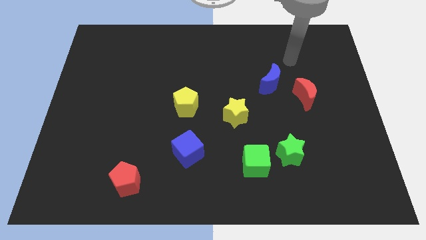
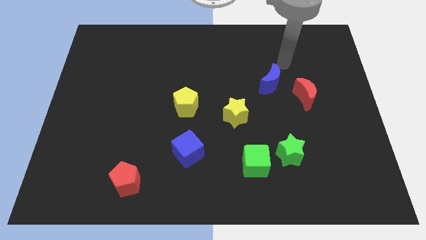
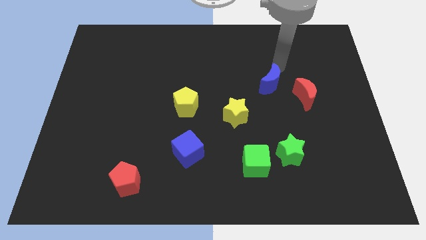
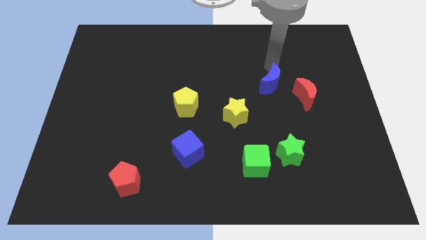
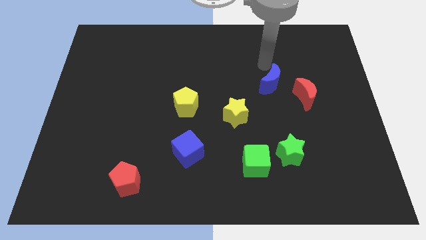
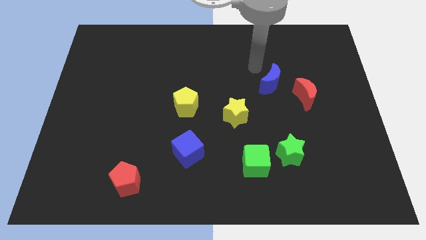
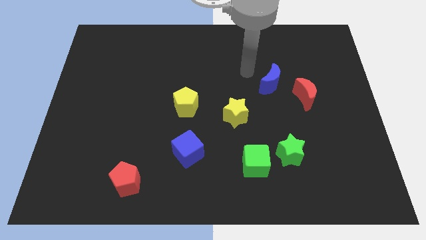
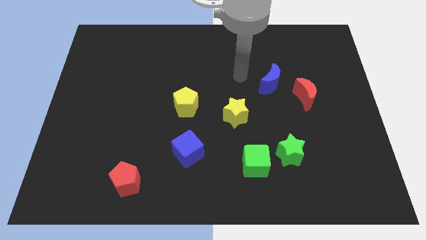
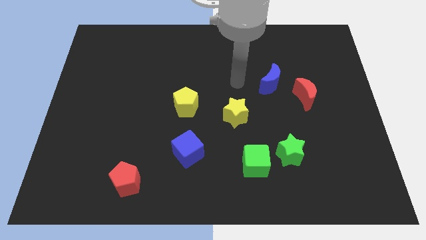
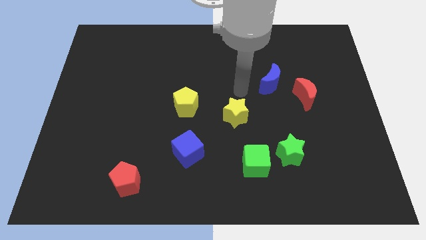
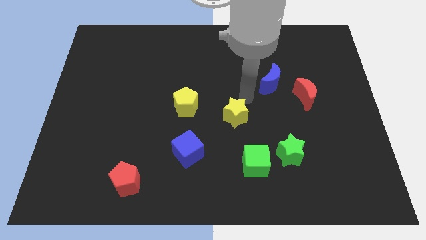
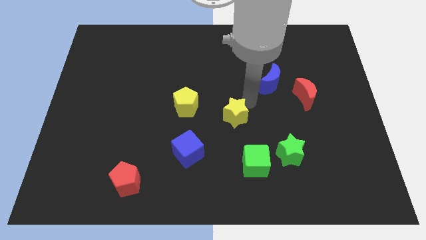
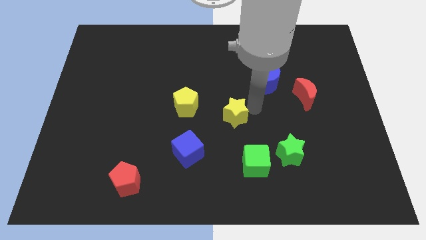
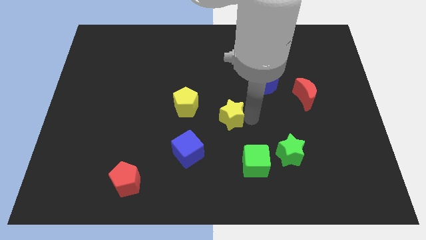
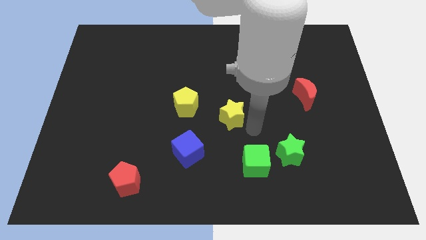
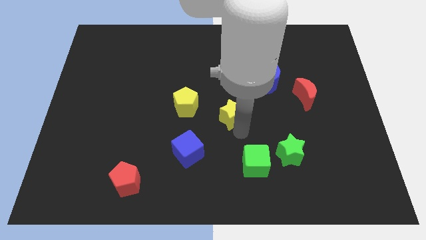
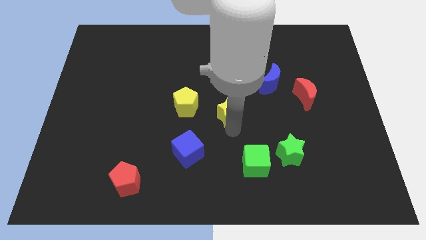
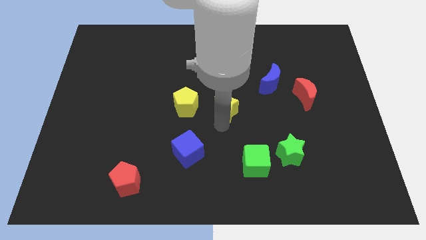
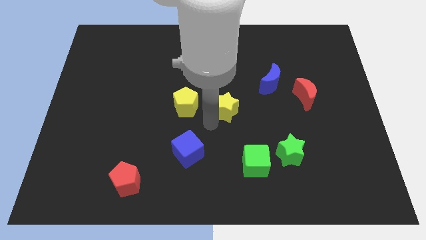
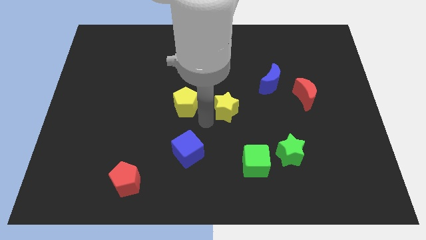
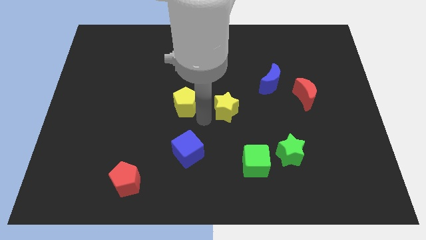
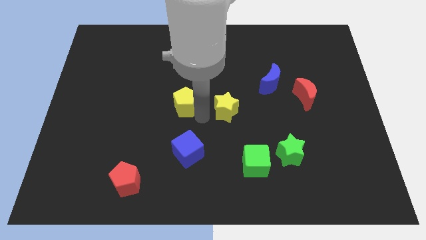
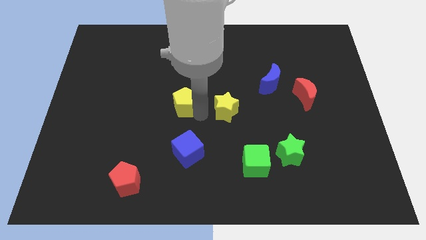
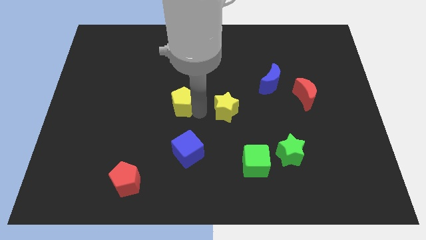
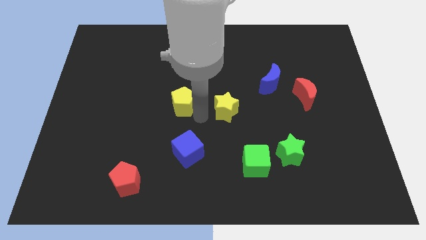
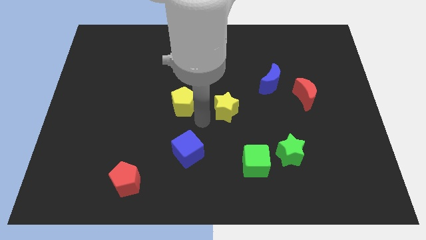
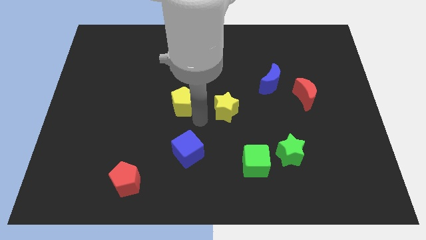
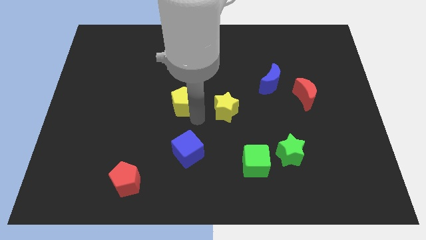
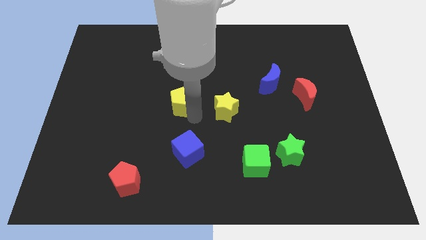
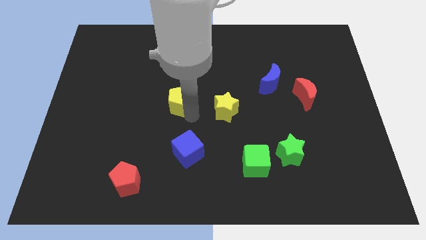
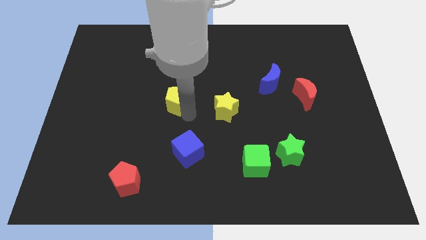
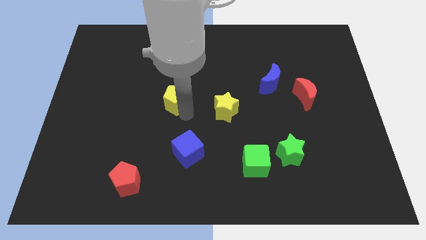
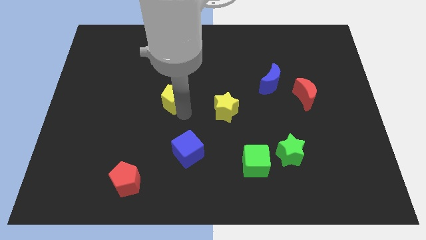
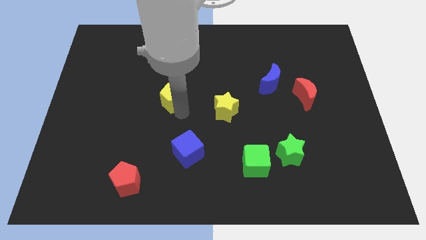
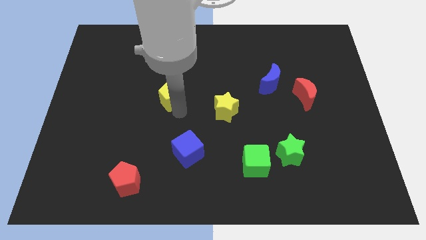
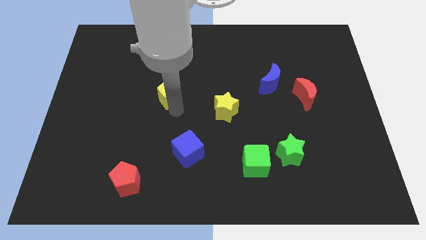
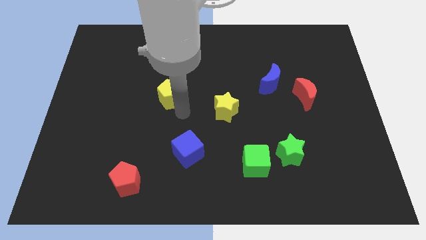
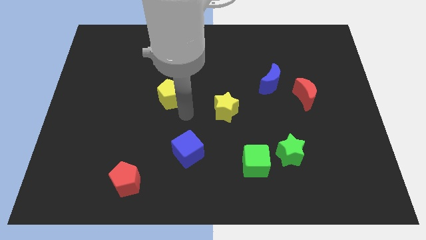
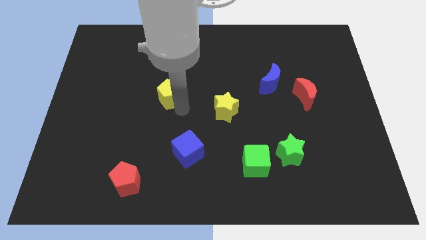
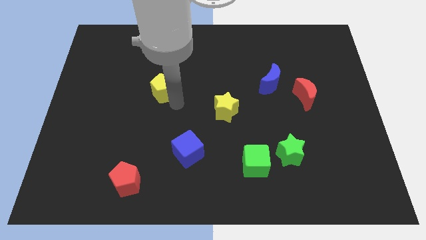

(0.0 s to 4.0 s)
slightly push the yellow pentagon upwards and then to the left

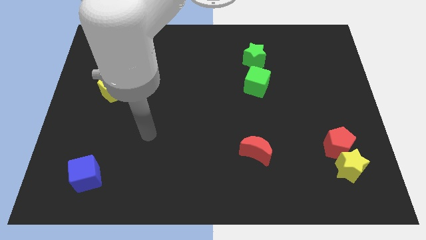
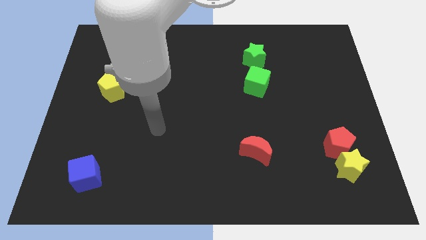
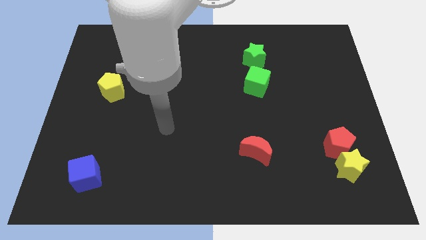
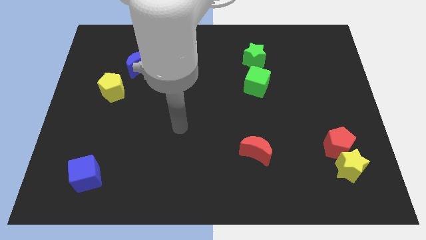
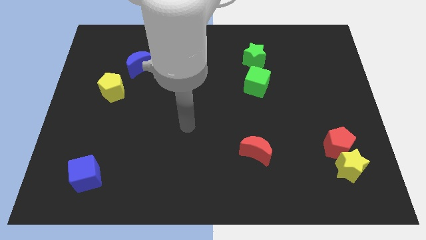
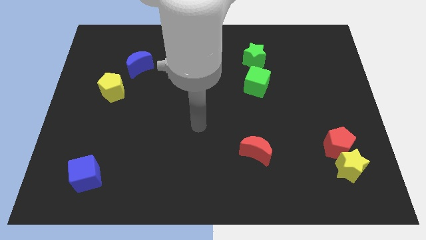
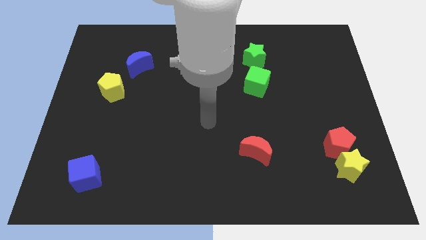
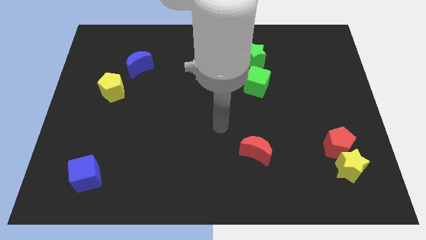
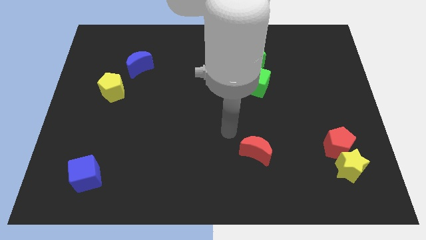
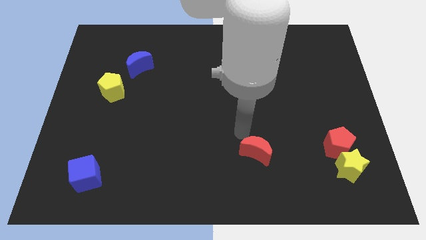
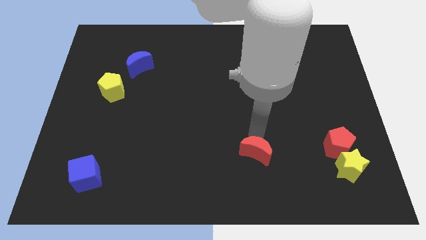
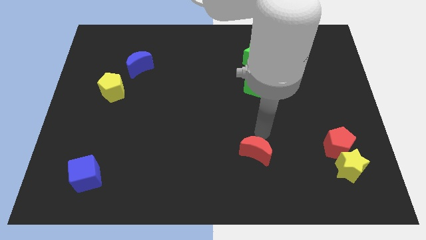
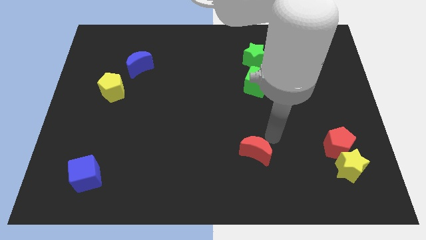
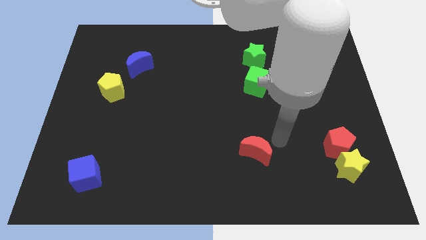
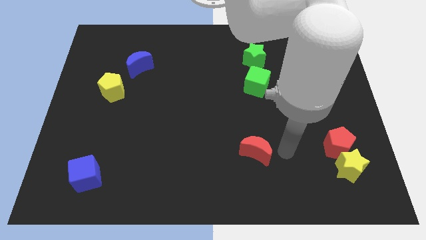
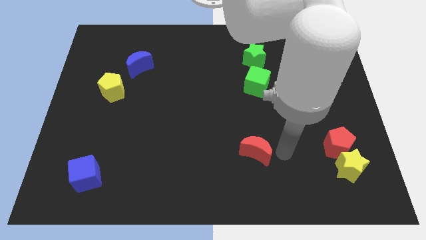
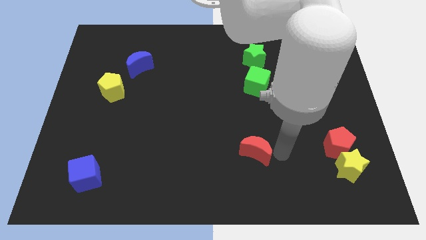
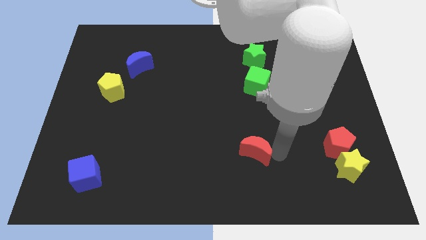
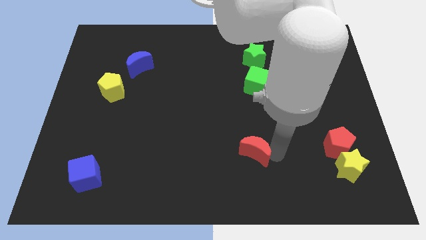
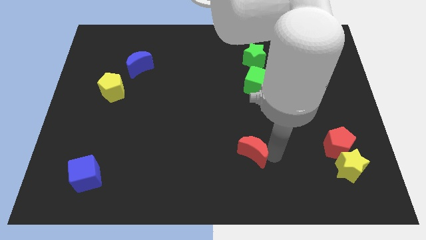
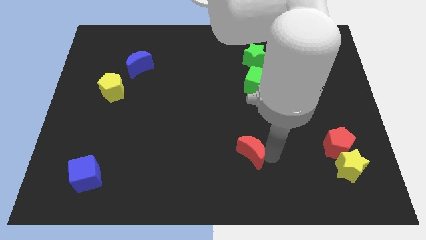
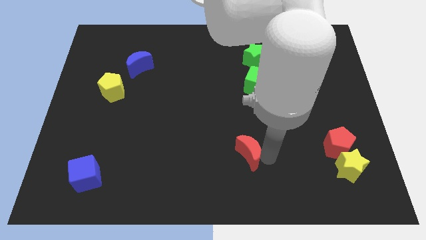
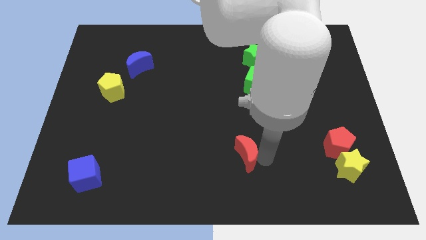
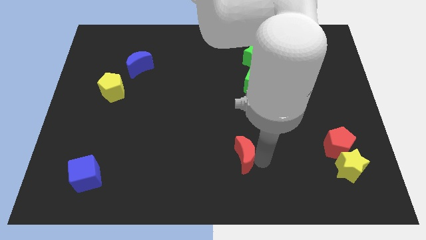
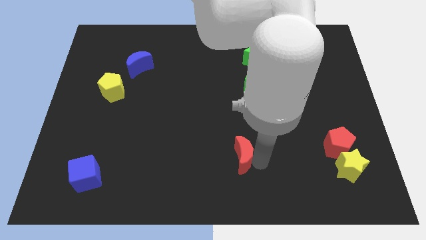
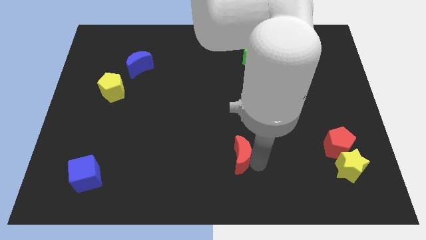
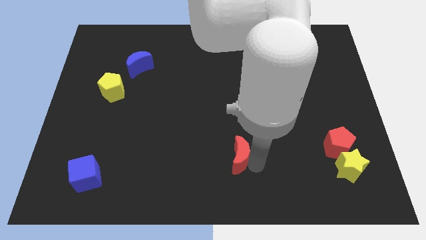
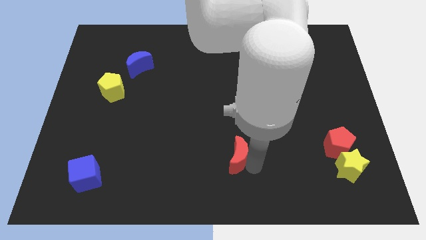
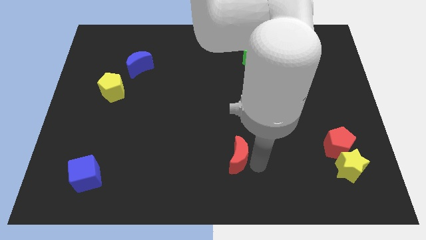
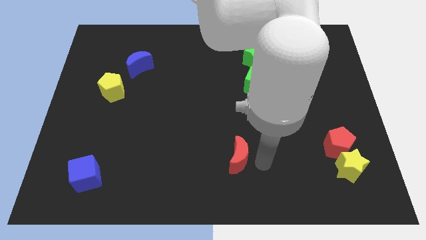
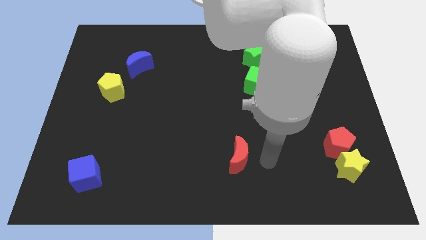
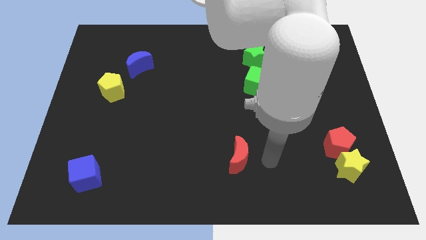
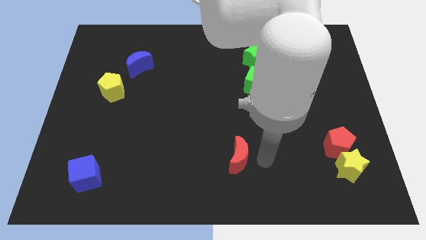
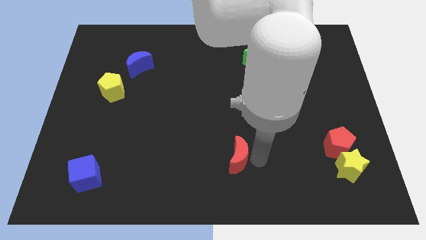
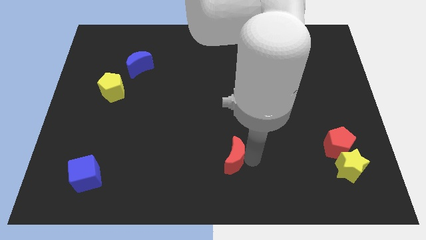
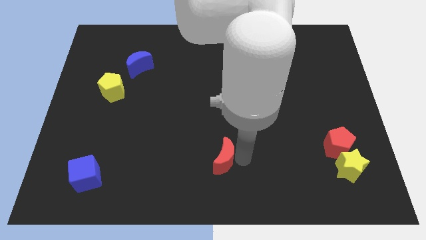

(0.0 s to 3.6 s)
push the red moon left somewhat

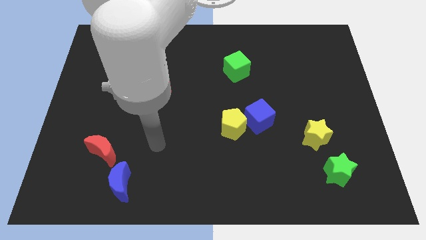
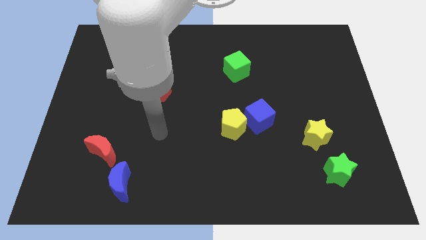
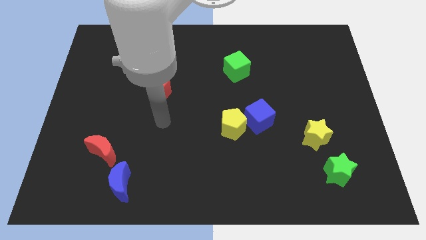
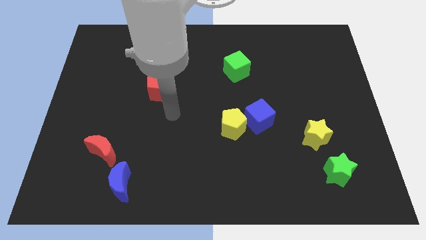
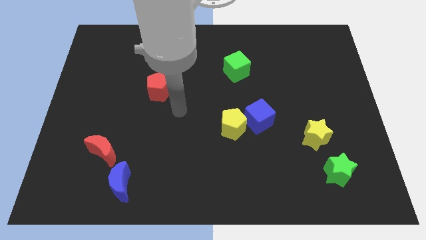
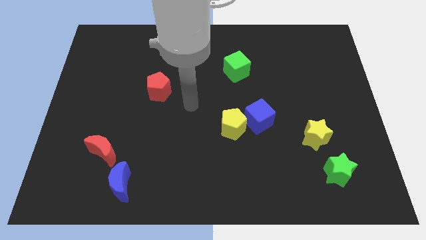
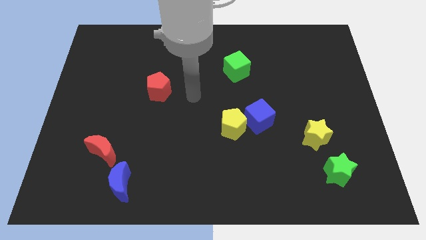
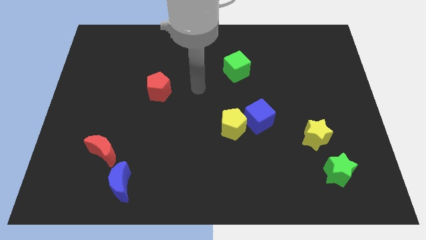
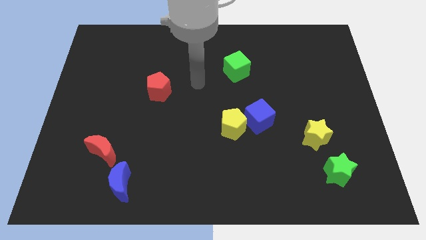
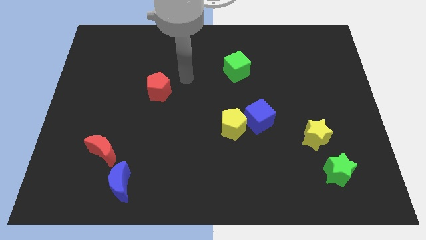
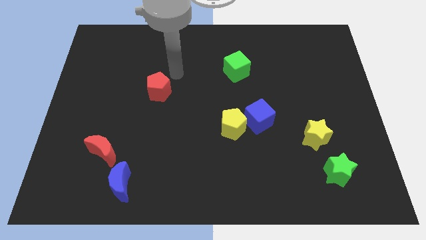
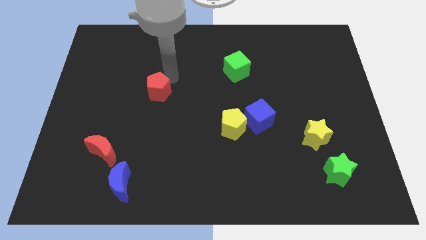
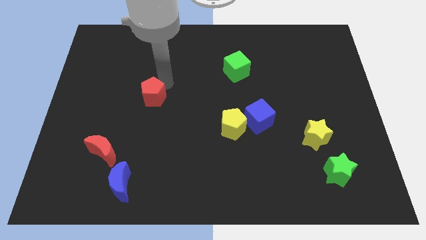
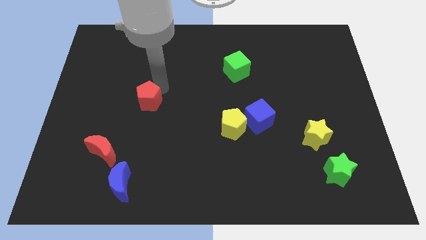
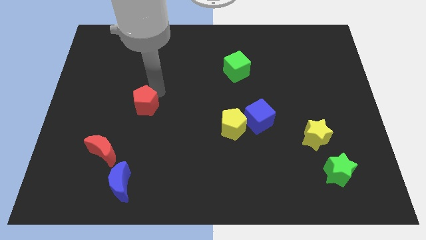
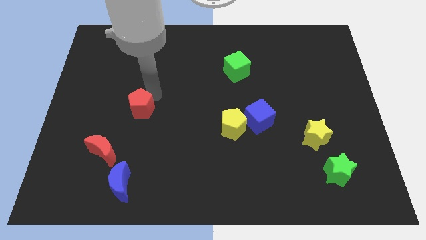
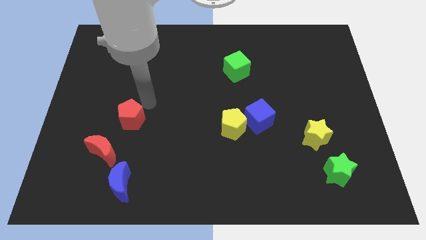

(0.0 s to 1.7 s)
move the red pentagon a little down and left
